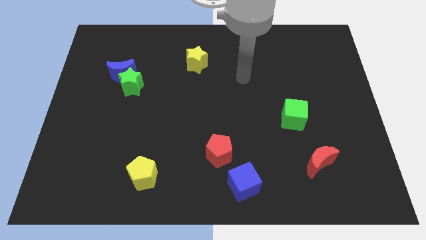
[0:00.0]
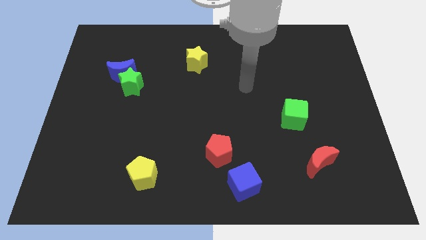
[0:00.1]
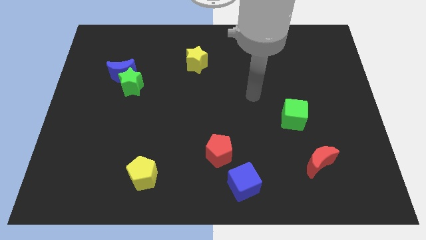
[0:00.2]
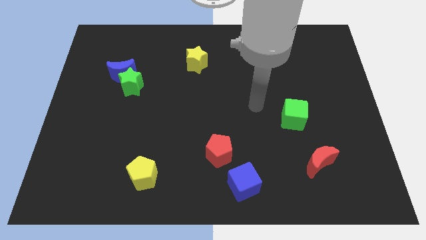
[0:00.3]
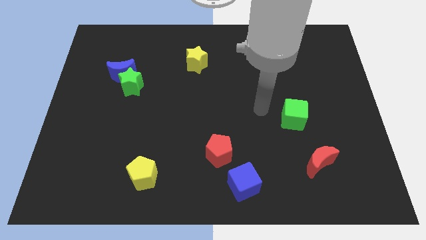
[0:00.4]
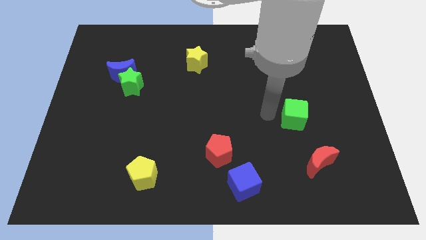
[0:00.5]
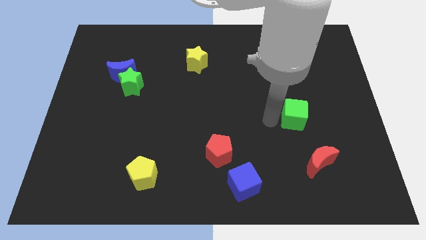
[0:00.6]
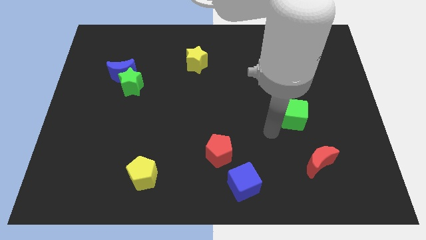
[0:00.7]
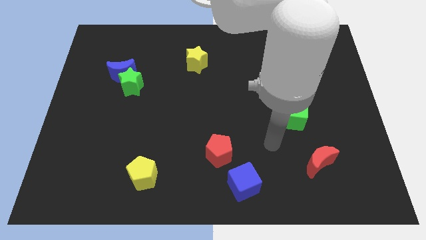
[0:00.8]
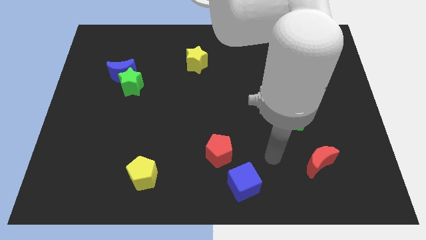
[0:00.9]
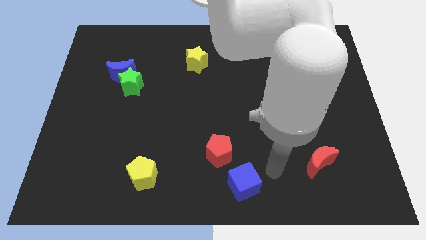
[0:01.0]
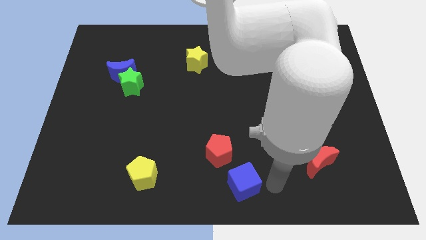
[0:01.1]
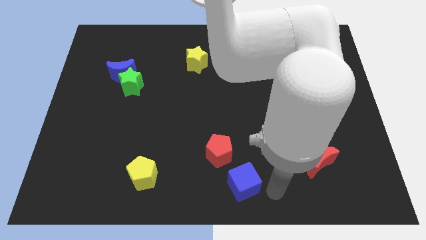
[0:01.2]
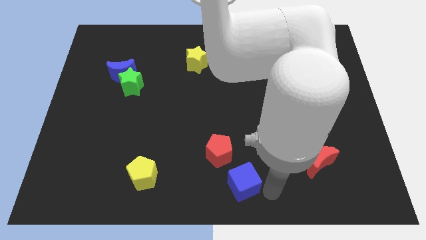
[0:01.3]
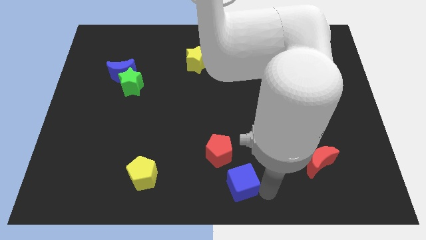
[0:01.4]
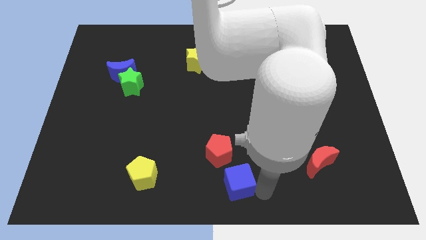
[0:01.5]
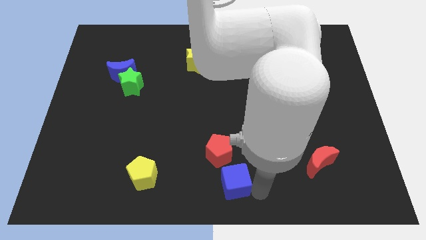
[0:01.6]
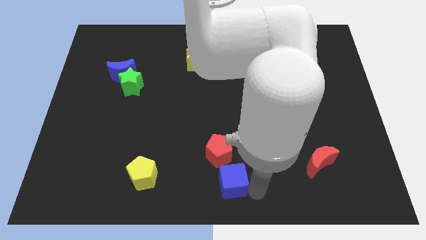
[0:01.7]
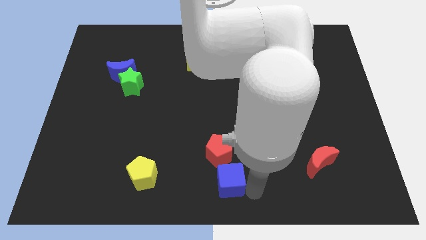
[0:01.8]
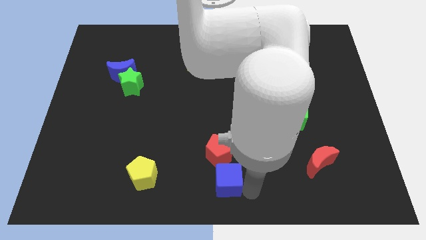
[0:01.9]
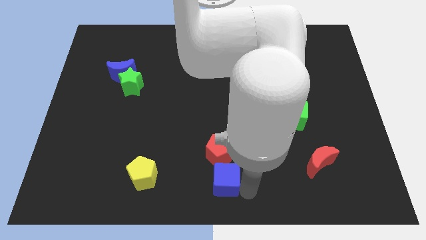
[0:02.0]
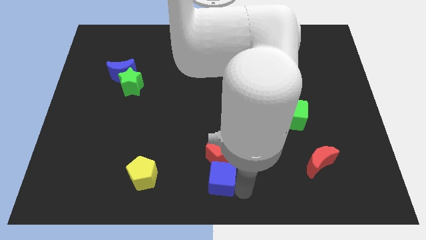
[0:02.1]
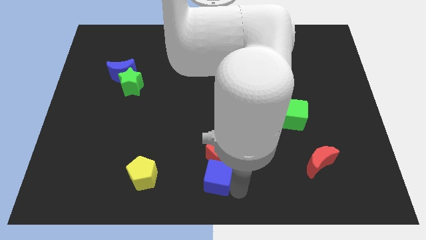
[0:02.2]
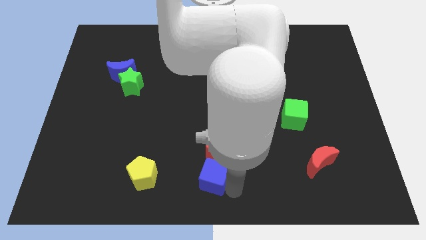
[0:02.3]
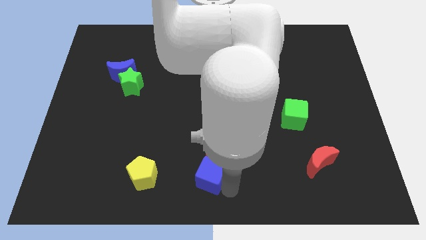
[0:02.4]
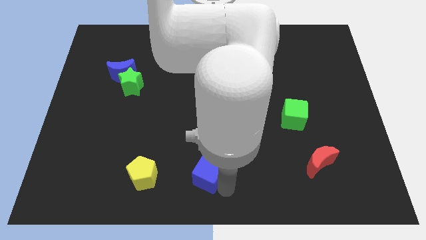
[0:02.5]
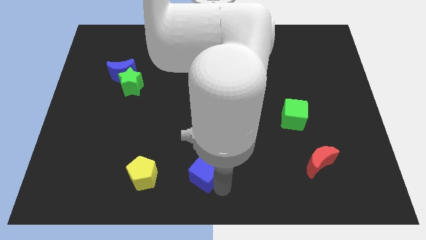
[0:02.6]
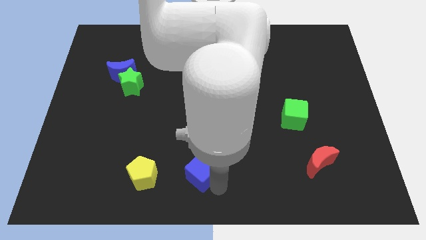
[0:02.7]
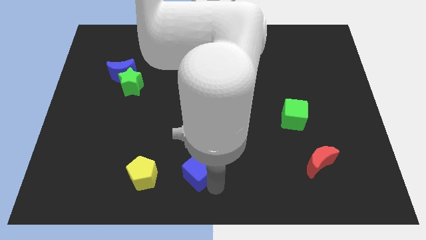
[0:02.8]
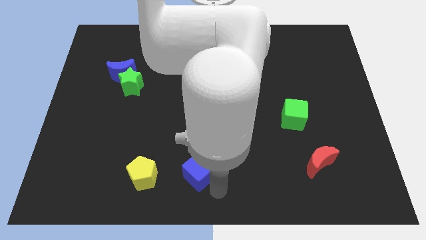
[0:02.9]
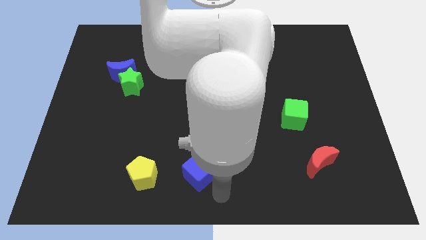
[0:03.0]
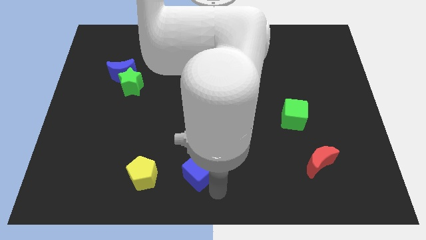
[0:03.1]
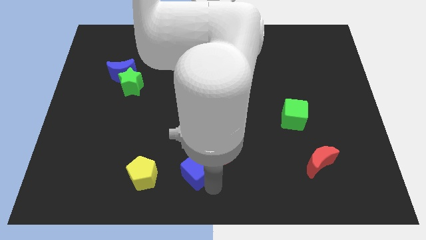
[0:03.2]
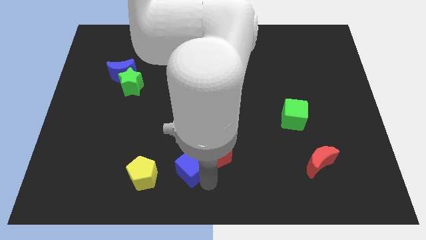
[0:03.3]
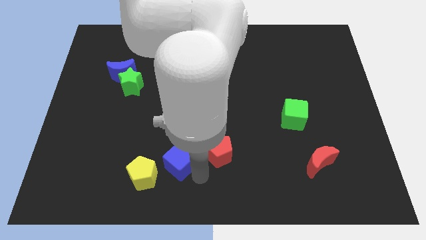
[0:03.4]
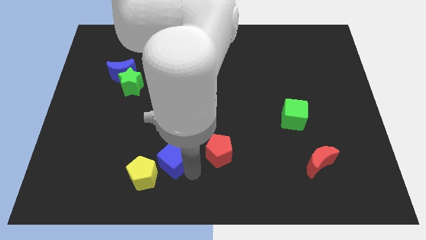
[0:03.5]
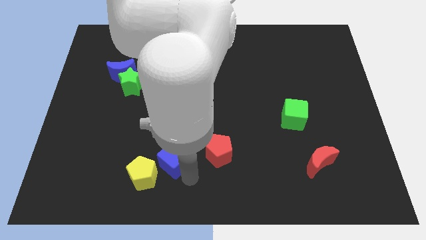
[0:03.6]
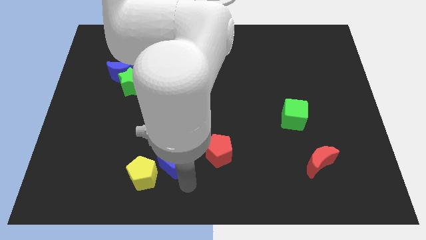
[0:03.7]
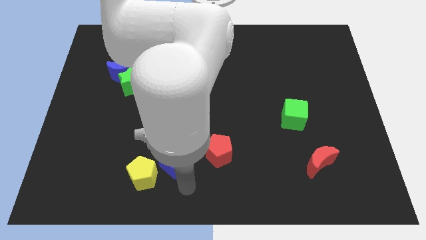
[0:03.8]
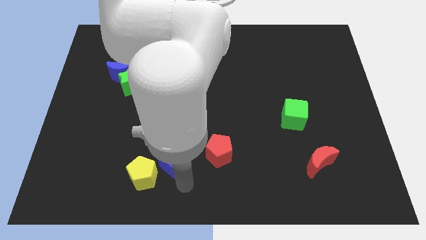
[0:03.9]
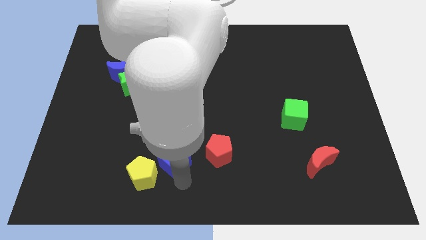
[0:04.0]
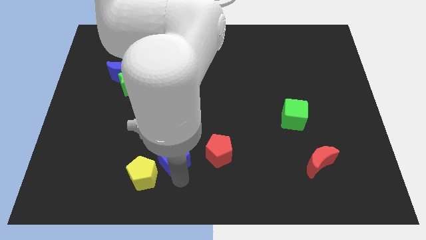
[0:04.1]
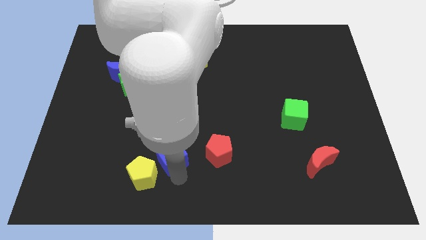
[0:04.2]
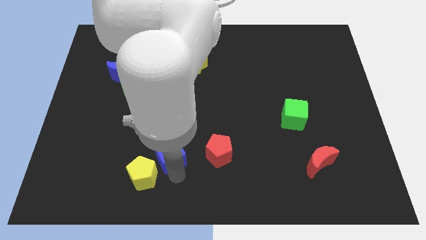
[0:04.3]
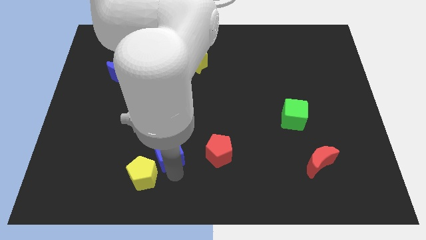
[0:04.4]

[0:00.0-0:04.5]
slide the blue cube to the top of the yellow pentagon

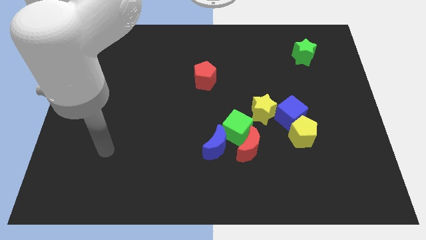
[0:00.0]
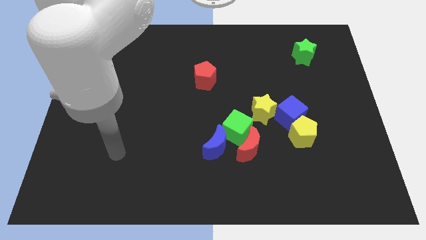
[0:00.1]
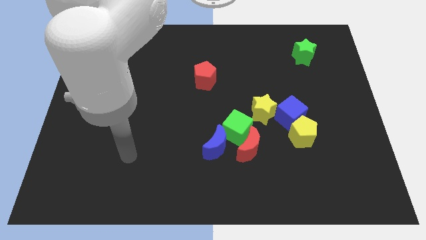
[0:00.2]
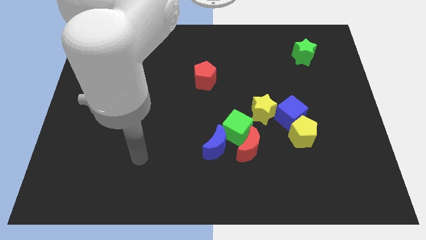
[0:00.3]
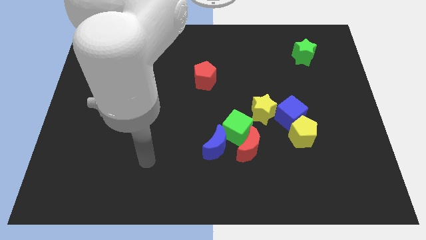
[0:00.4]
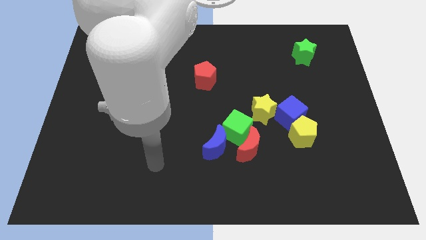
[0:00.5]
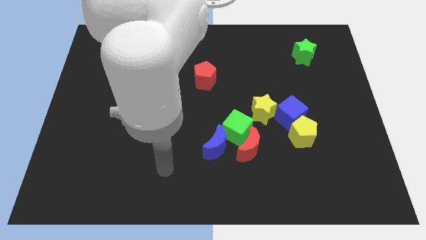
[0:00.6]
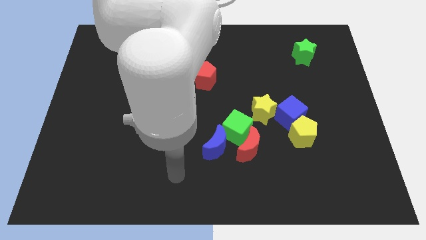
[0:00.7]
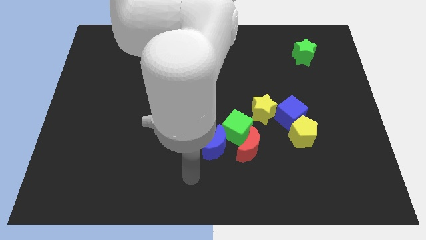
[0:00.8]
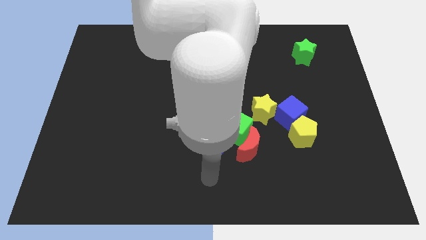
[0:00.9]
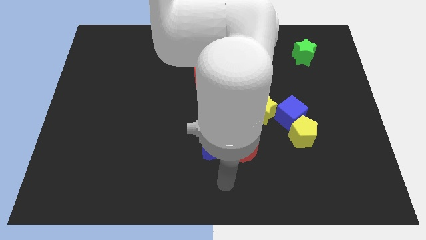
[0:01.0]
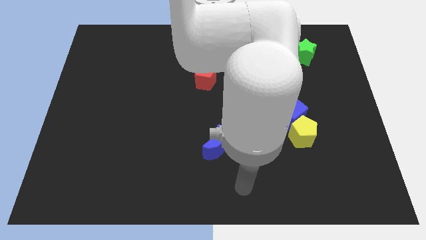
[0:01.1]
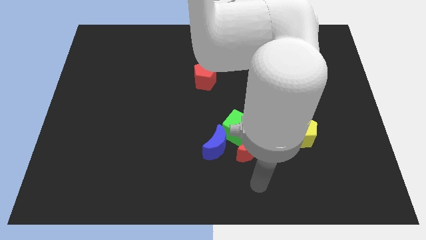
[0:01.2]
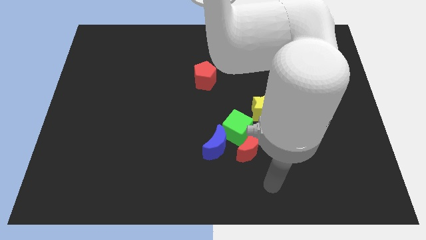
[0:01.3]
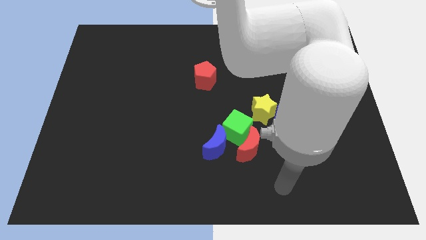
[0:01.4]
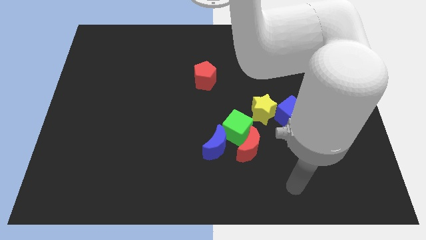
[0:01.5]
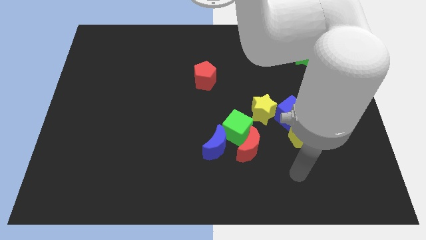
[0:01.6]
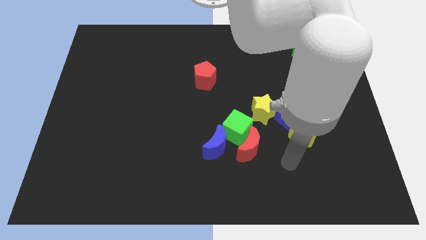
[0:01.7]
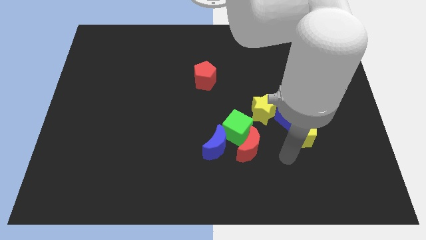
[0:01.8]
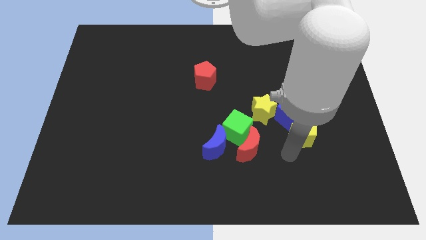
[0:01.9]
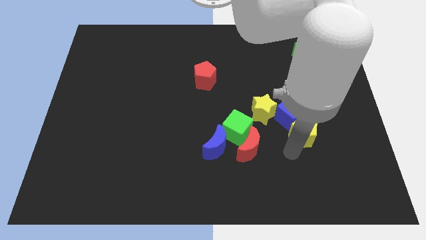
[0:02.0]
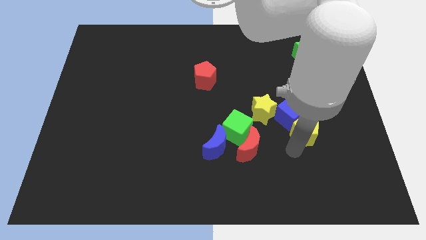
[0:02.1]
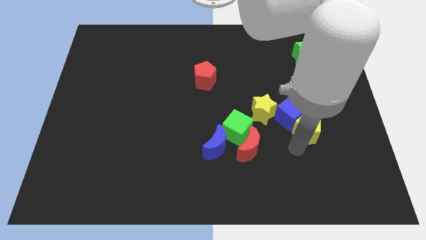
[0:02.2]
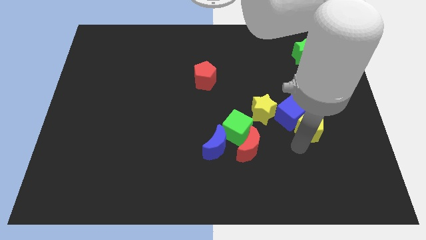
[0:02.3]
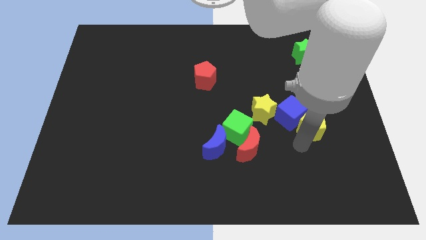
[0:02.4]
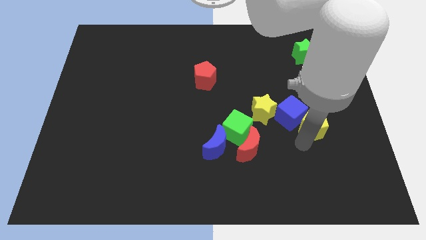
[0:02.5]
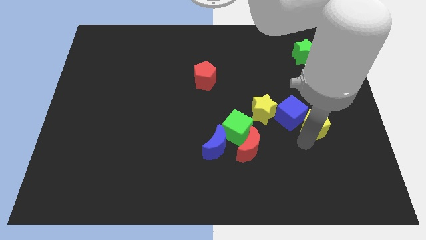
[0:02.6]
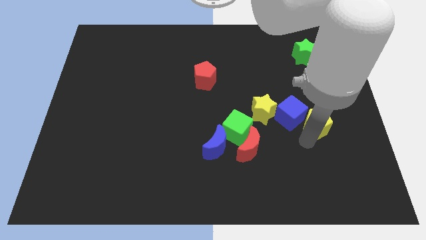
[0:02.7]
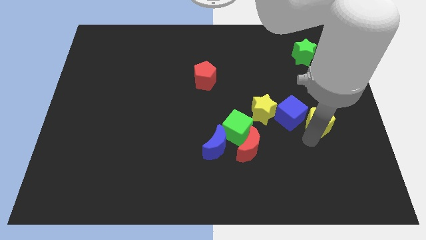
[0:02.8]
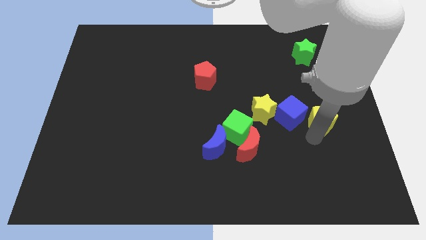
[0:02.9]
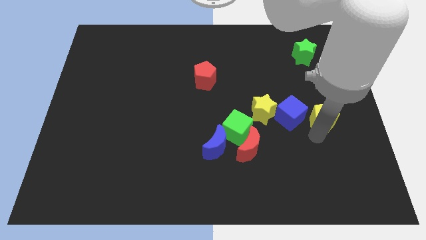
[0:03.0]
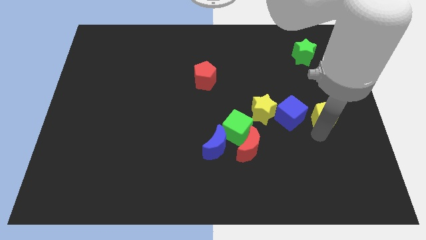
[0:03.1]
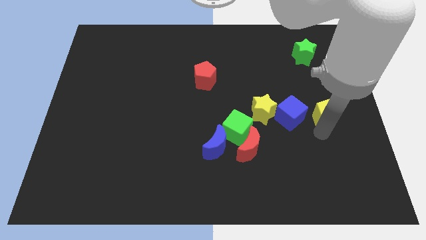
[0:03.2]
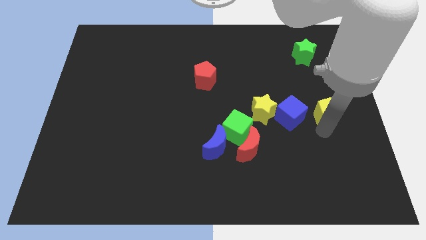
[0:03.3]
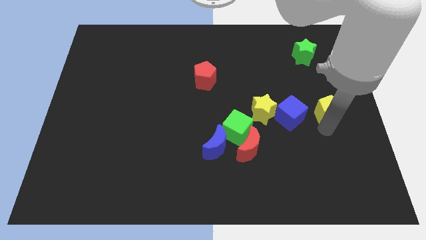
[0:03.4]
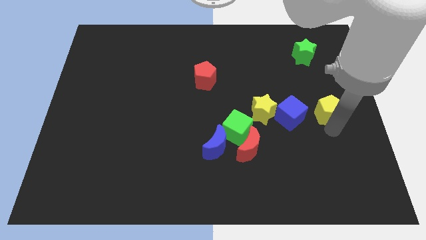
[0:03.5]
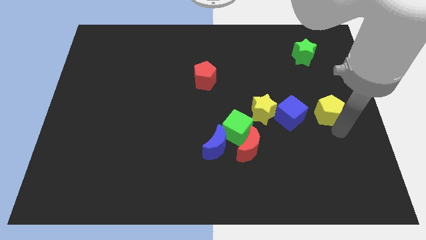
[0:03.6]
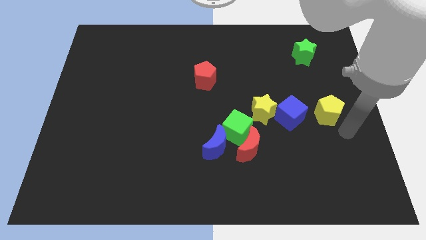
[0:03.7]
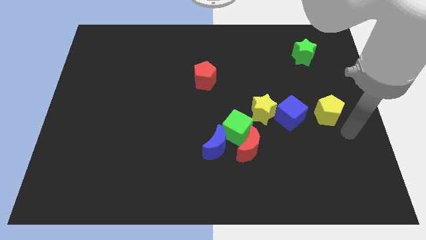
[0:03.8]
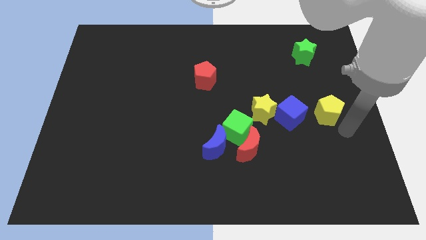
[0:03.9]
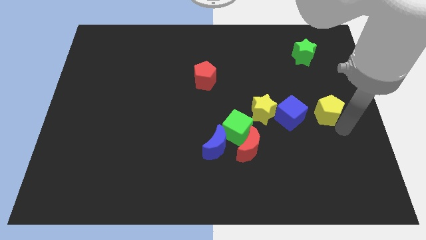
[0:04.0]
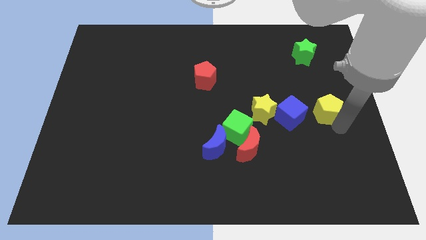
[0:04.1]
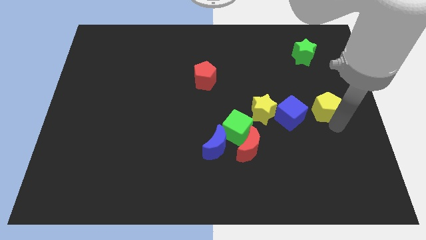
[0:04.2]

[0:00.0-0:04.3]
move the yellow pentagon to the top right side of the blue cube
